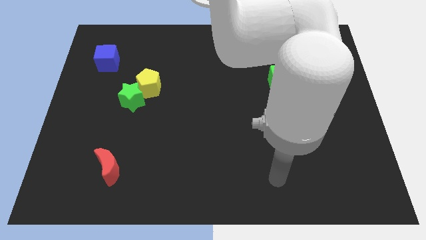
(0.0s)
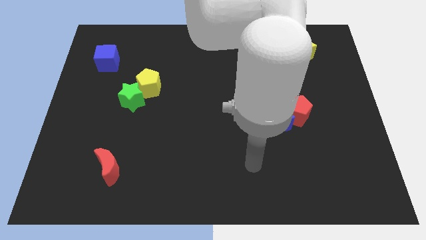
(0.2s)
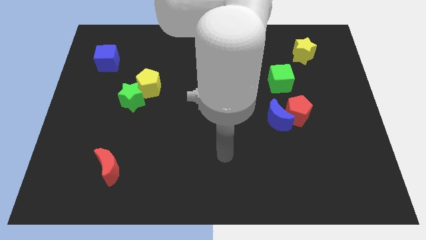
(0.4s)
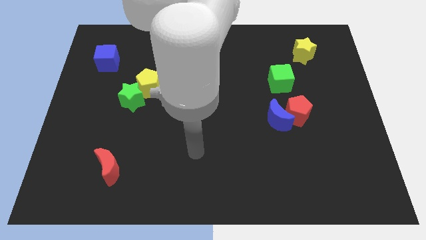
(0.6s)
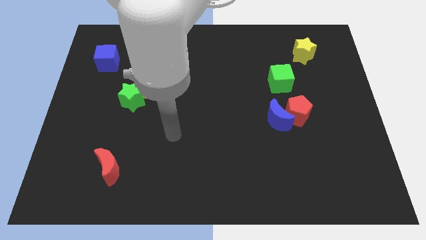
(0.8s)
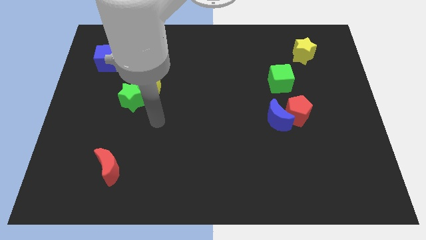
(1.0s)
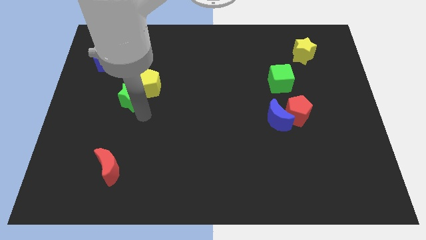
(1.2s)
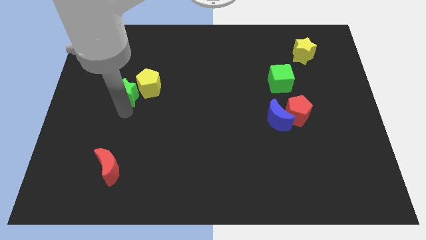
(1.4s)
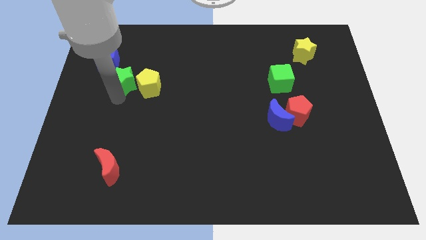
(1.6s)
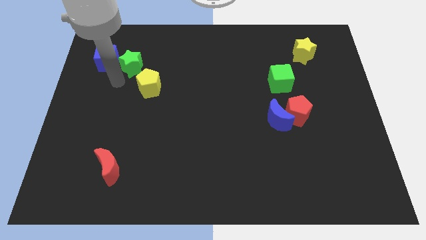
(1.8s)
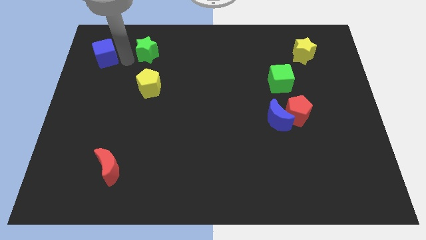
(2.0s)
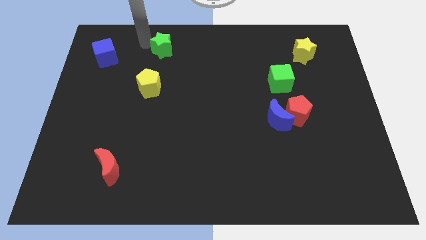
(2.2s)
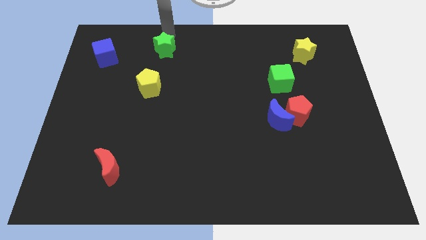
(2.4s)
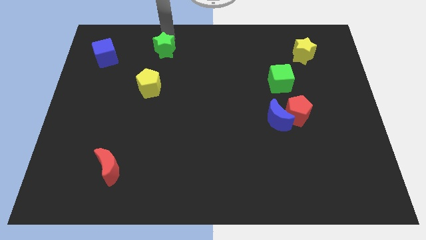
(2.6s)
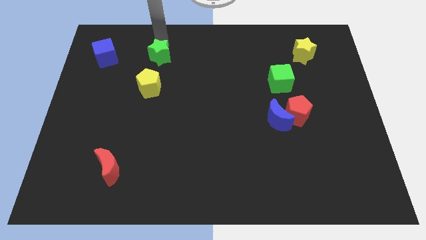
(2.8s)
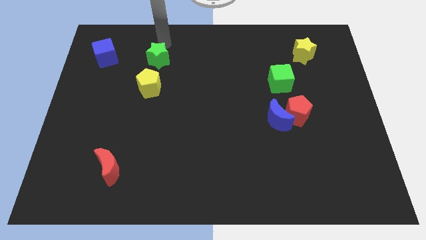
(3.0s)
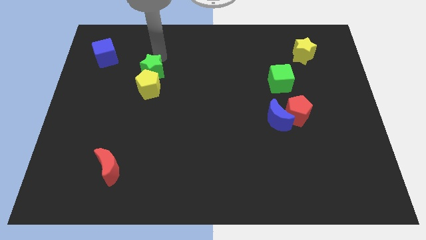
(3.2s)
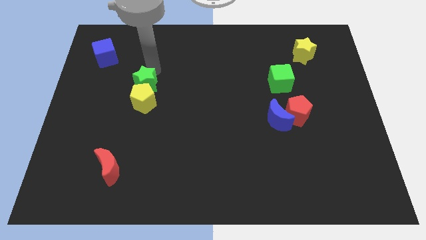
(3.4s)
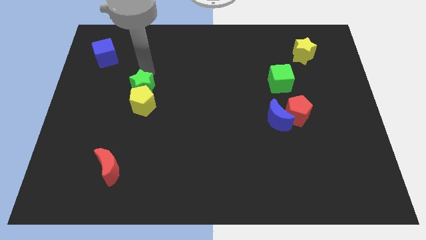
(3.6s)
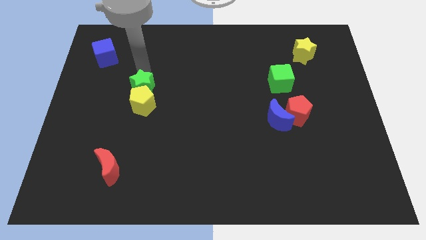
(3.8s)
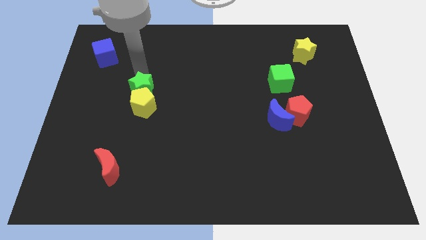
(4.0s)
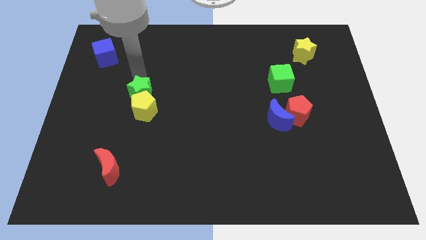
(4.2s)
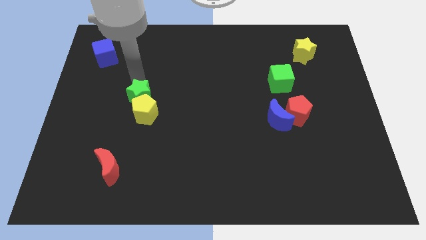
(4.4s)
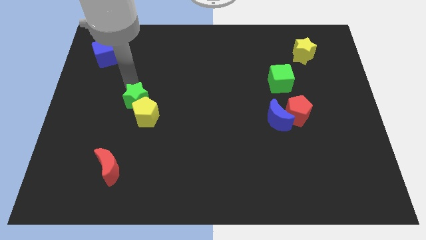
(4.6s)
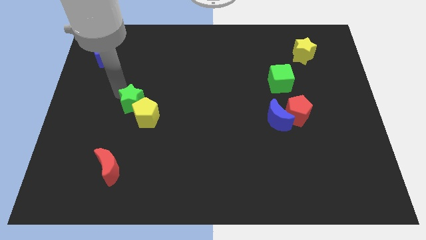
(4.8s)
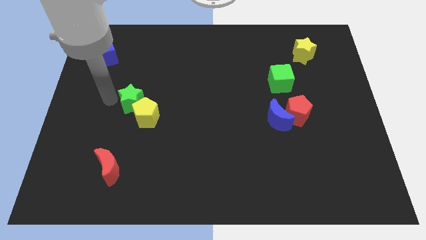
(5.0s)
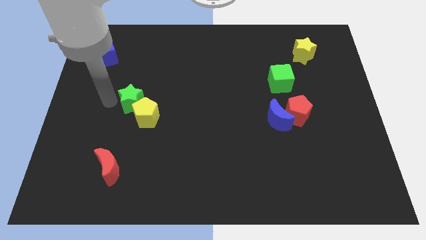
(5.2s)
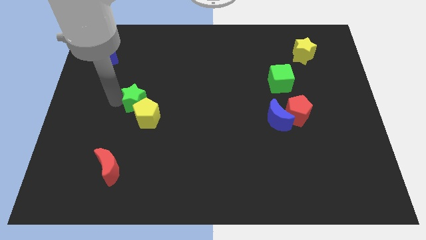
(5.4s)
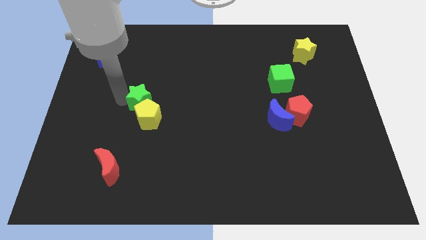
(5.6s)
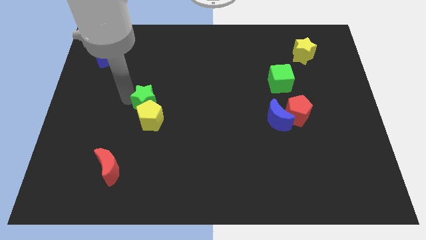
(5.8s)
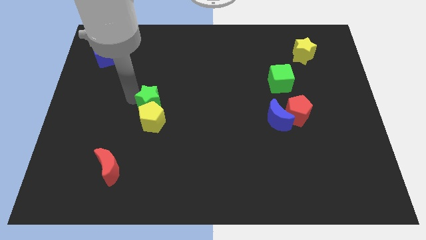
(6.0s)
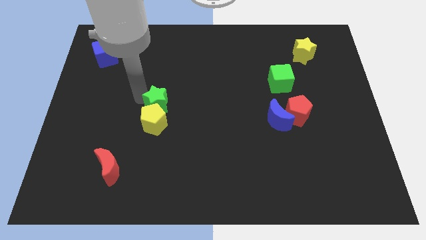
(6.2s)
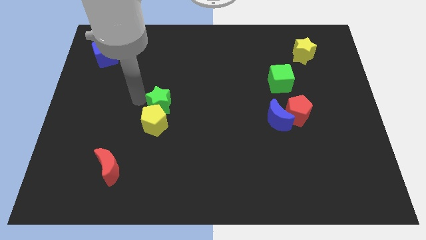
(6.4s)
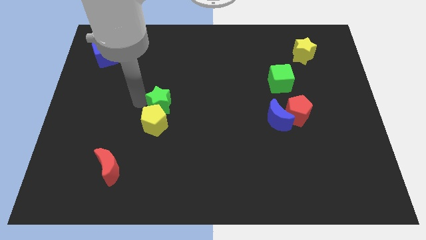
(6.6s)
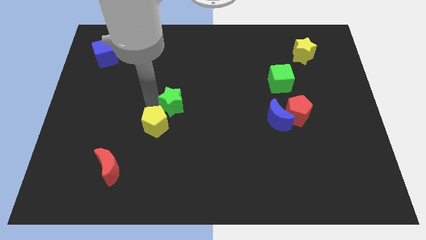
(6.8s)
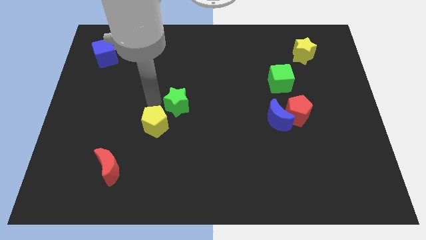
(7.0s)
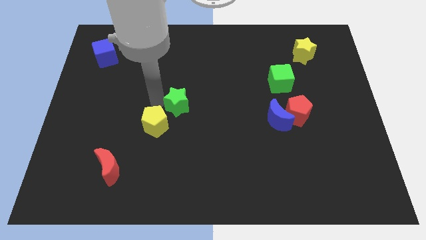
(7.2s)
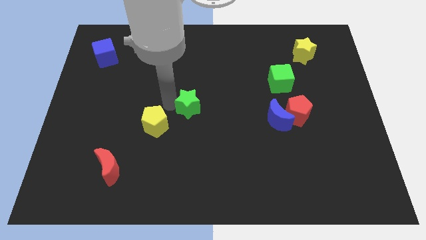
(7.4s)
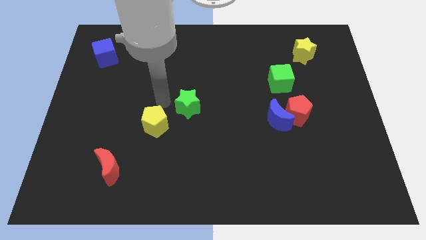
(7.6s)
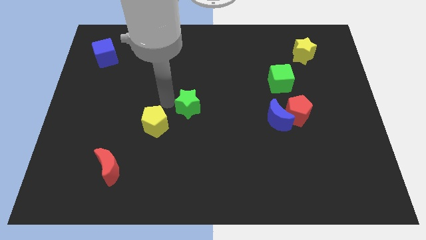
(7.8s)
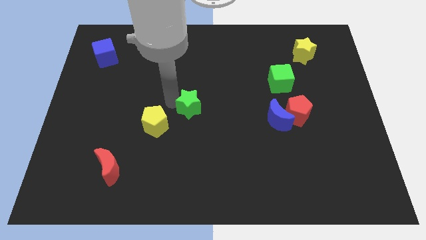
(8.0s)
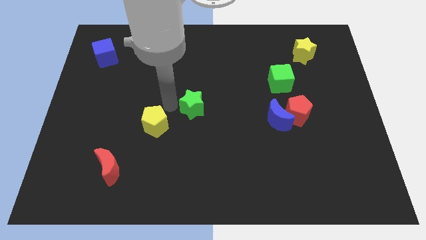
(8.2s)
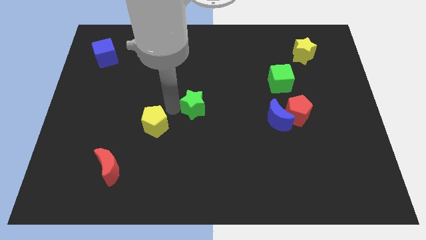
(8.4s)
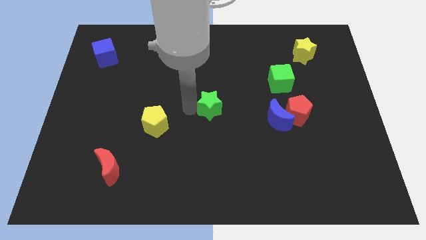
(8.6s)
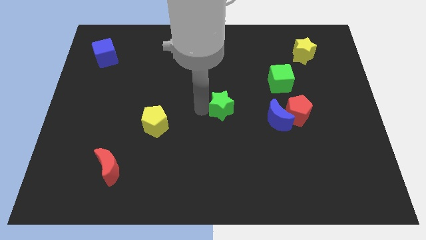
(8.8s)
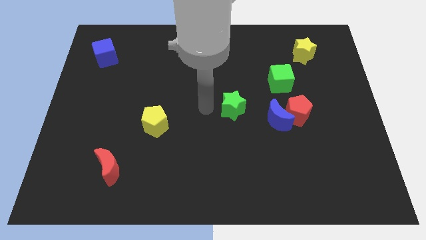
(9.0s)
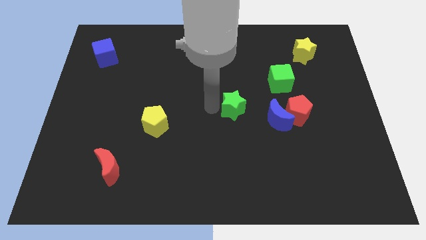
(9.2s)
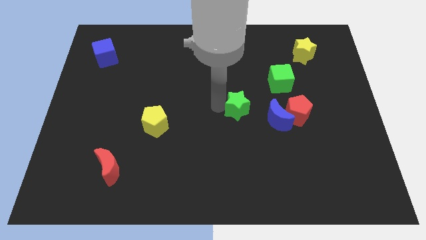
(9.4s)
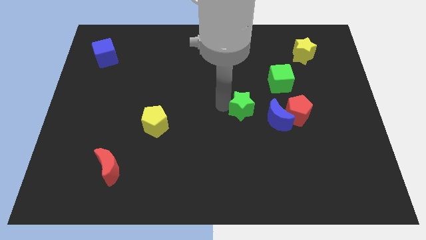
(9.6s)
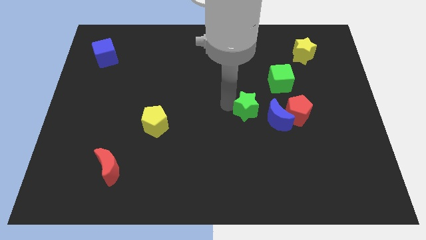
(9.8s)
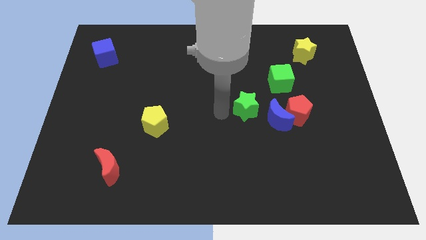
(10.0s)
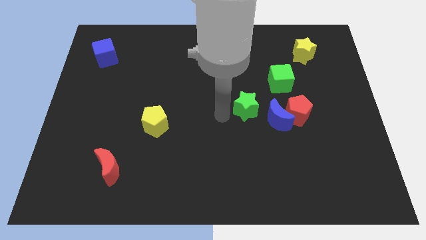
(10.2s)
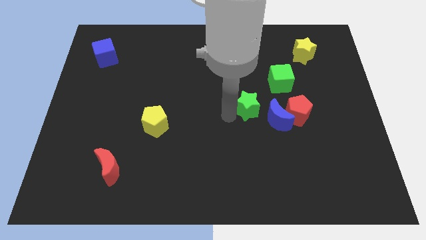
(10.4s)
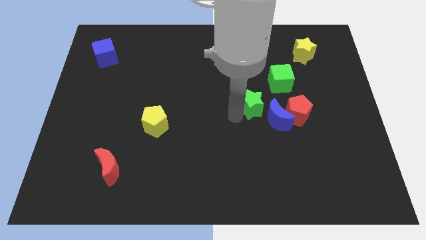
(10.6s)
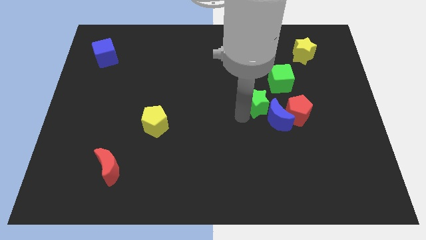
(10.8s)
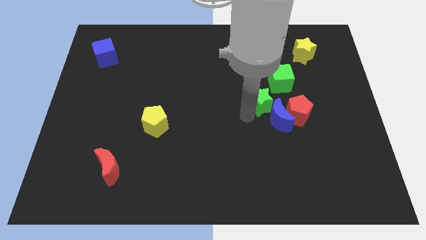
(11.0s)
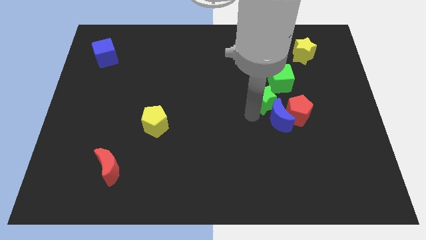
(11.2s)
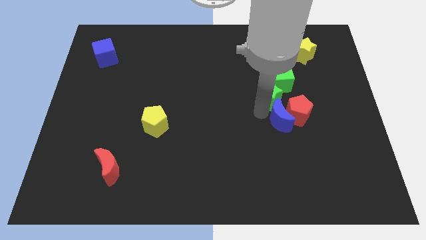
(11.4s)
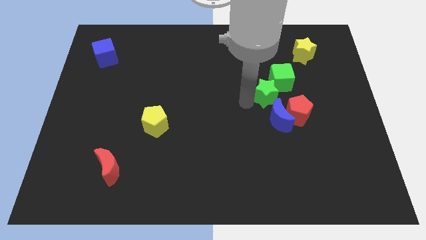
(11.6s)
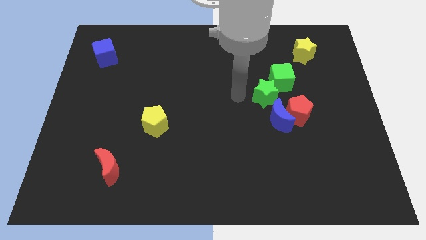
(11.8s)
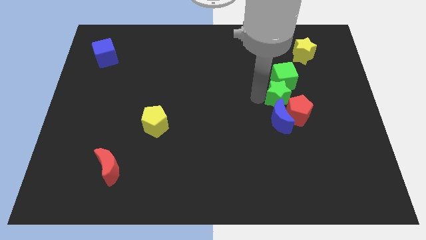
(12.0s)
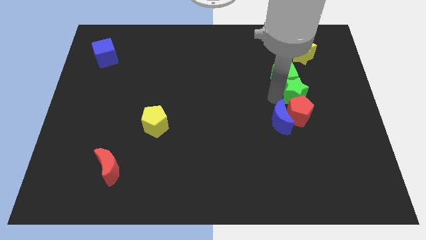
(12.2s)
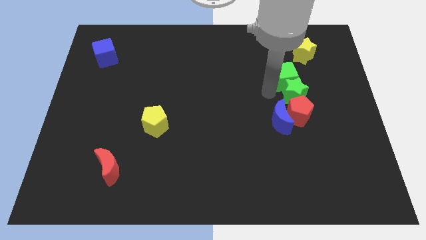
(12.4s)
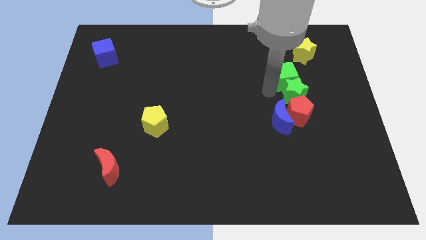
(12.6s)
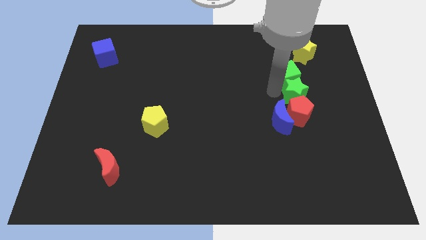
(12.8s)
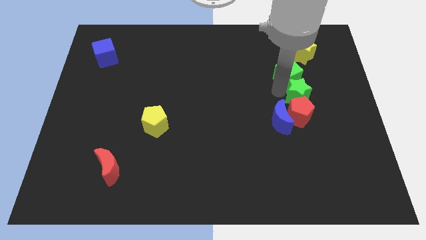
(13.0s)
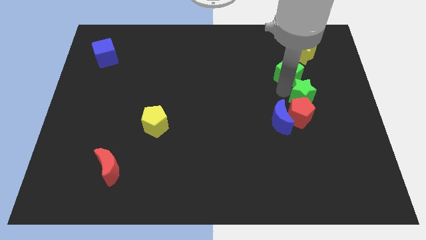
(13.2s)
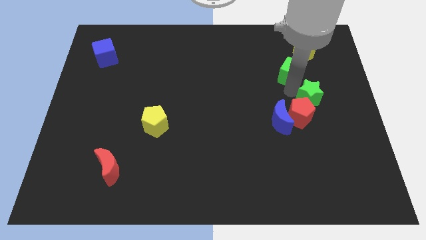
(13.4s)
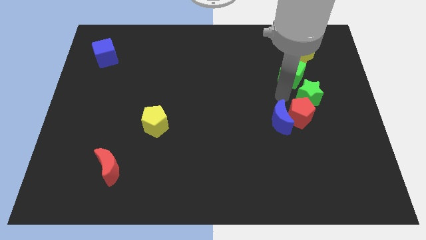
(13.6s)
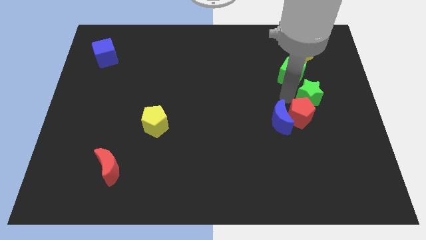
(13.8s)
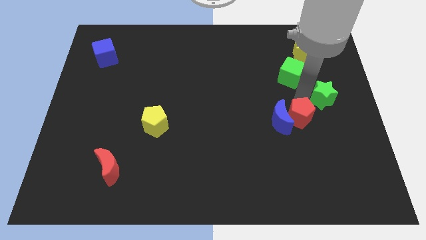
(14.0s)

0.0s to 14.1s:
slide the green star to the right side
